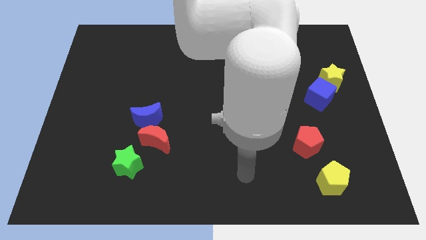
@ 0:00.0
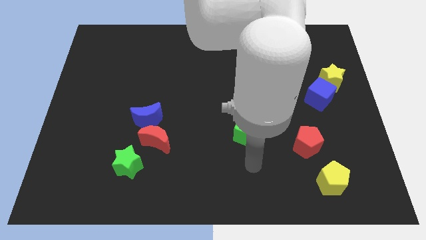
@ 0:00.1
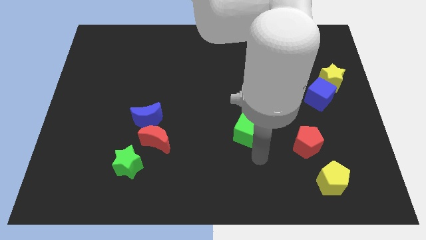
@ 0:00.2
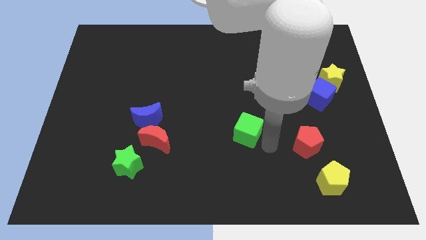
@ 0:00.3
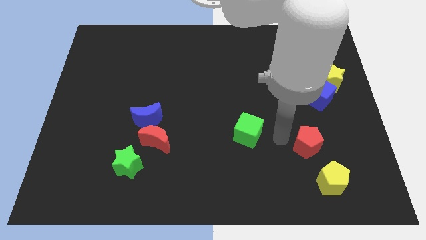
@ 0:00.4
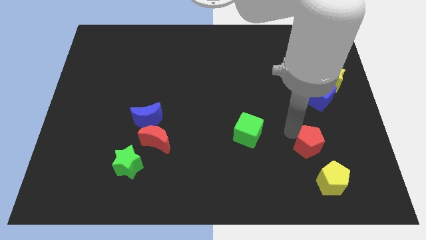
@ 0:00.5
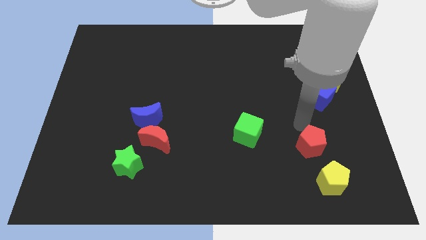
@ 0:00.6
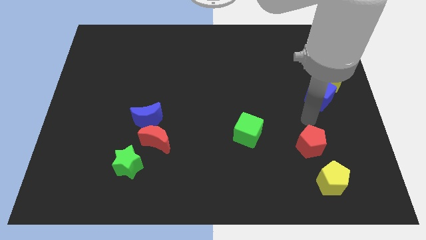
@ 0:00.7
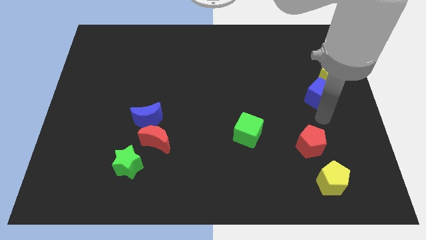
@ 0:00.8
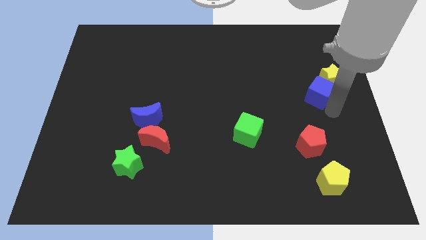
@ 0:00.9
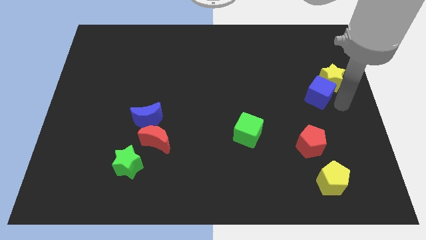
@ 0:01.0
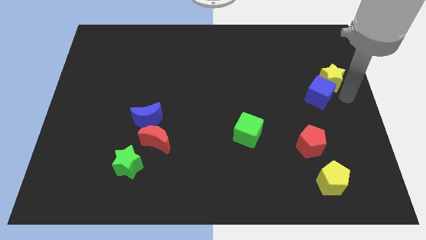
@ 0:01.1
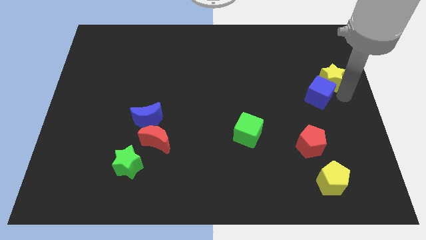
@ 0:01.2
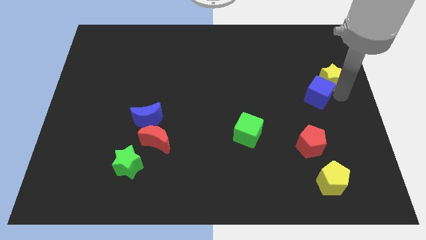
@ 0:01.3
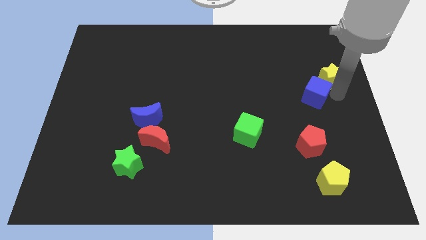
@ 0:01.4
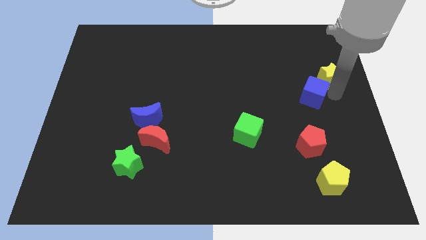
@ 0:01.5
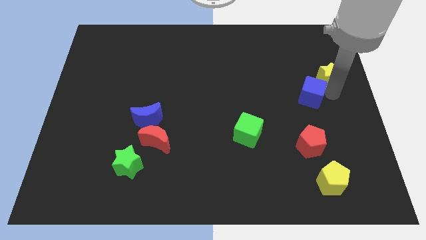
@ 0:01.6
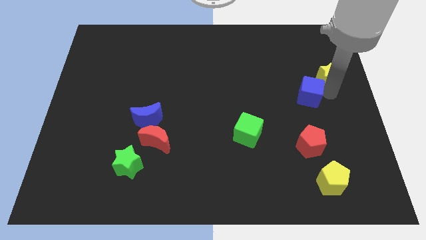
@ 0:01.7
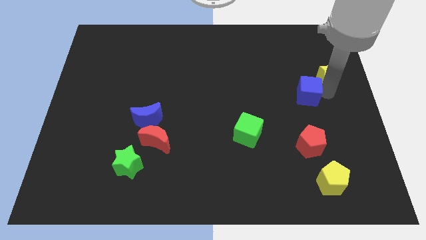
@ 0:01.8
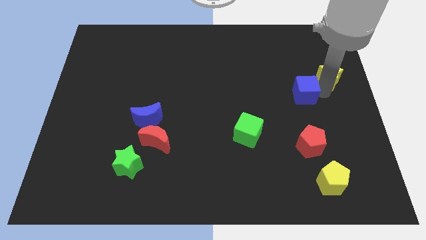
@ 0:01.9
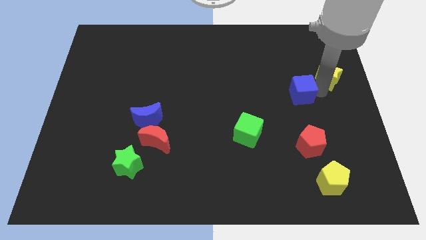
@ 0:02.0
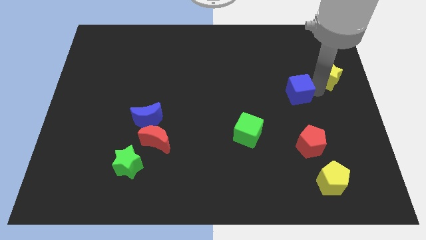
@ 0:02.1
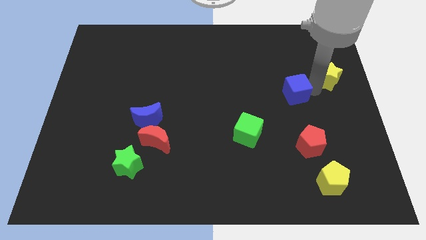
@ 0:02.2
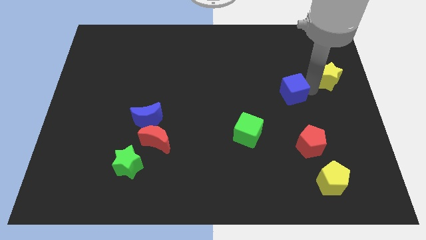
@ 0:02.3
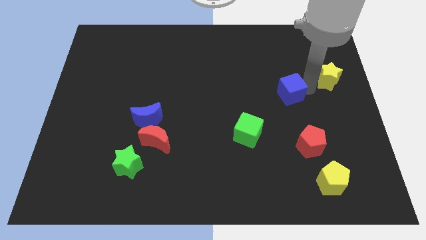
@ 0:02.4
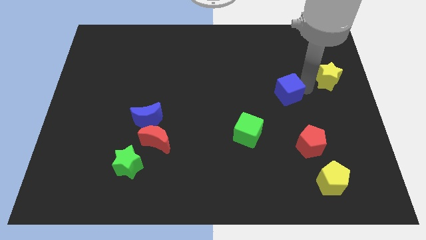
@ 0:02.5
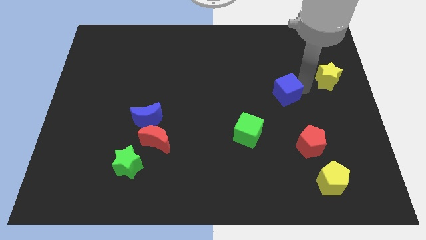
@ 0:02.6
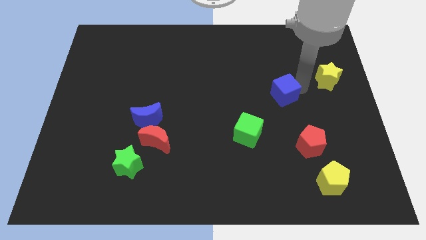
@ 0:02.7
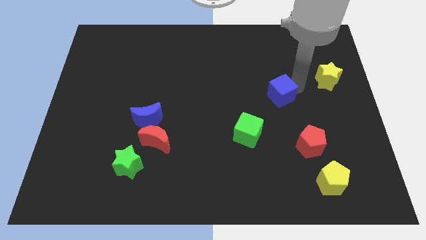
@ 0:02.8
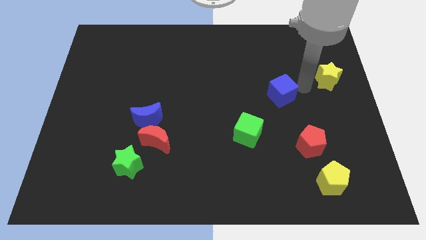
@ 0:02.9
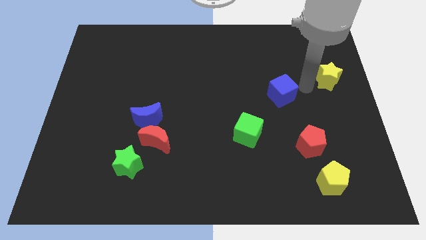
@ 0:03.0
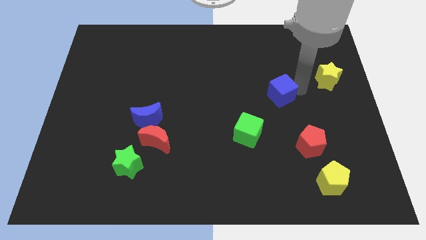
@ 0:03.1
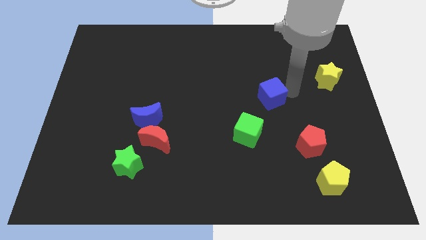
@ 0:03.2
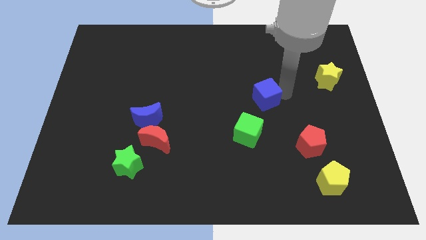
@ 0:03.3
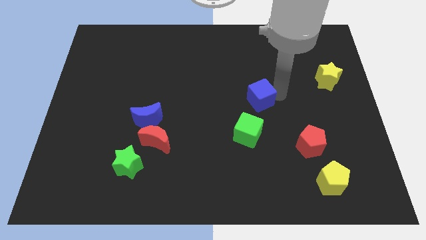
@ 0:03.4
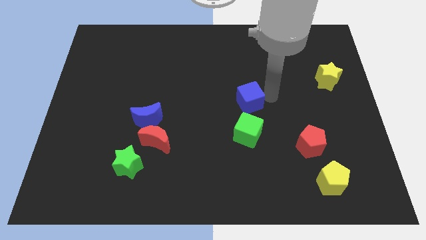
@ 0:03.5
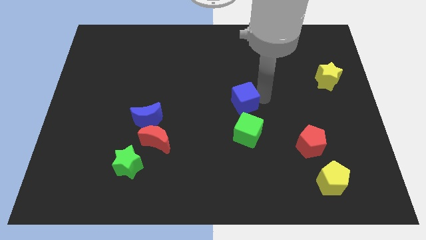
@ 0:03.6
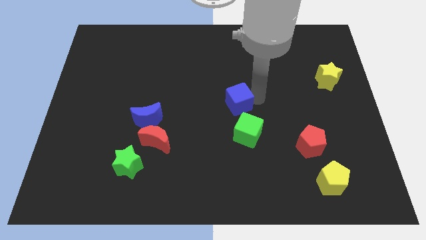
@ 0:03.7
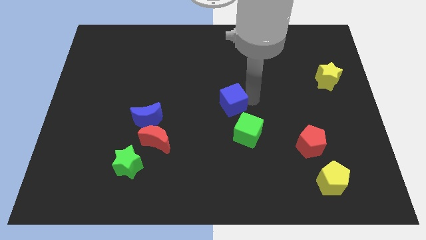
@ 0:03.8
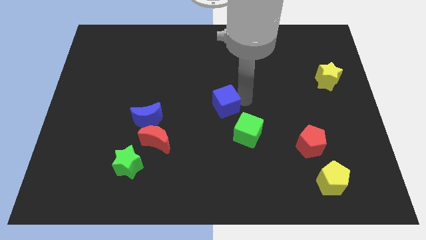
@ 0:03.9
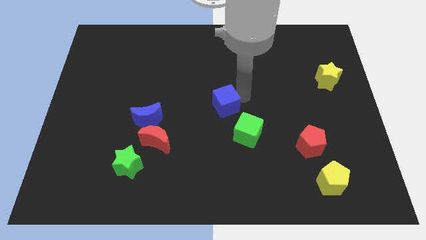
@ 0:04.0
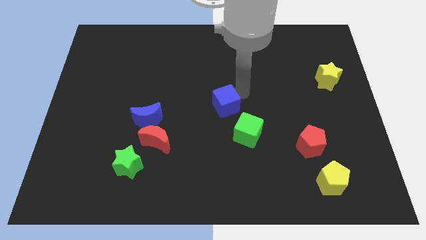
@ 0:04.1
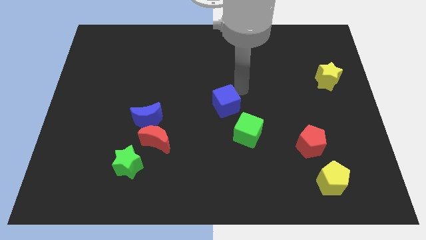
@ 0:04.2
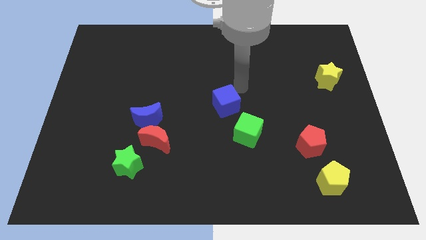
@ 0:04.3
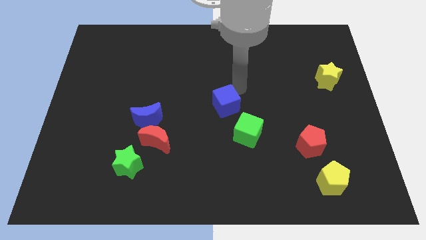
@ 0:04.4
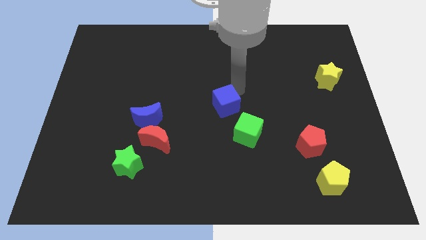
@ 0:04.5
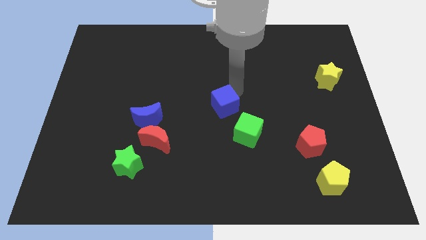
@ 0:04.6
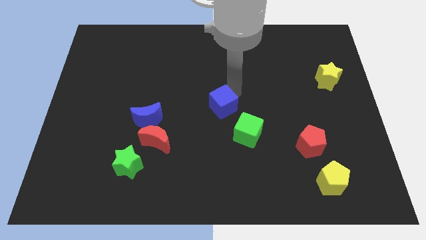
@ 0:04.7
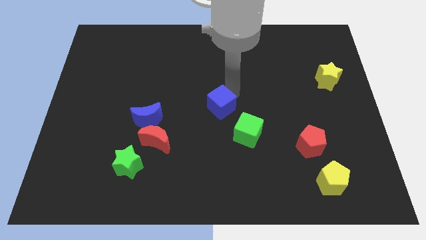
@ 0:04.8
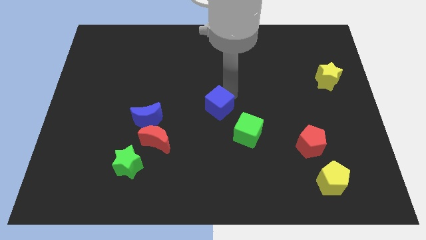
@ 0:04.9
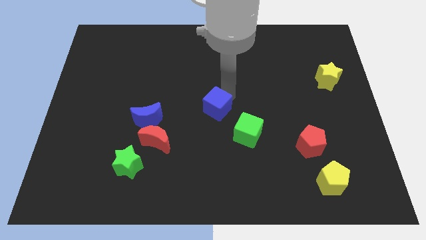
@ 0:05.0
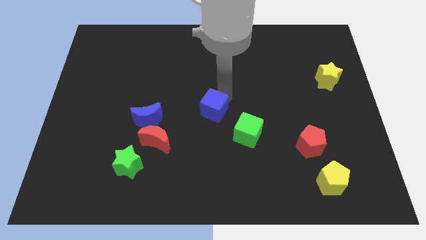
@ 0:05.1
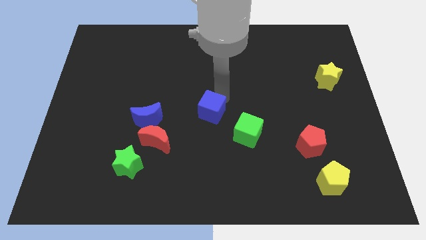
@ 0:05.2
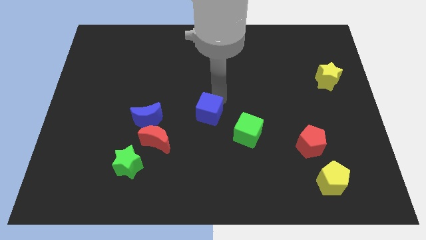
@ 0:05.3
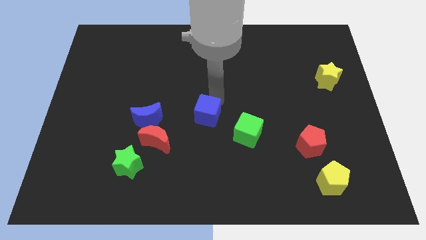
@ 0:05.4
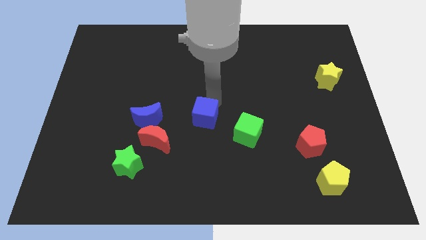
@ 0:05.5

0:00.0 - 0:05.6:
slide the blue cube to the left of the green cube

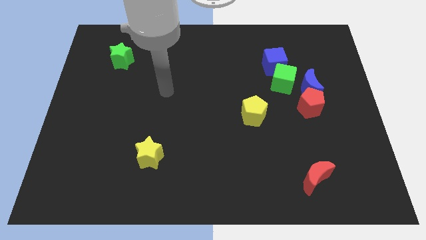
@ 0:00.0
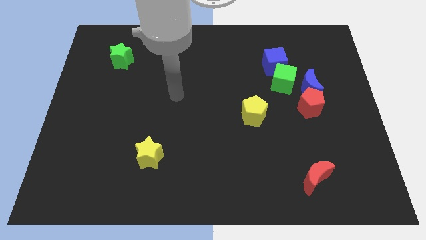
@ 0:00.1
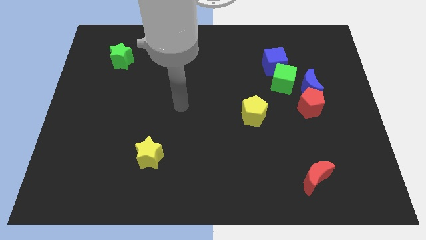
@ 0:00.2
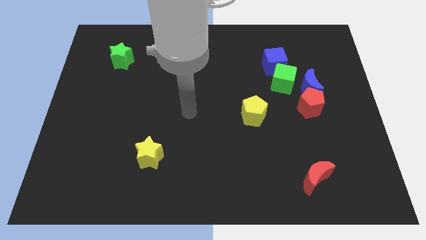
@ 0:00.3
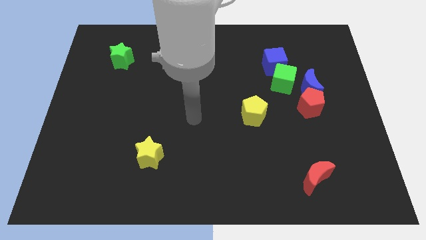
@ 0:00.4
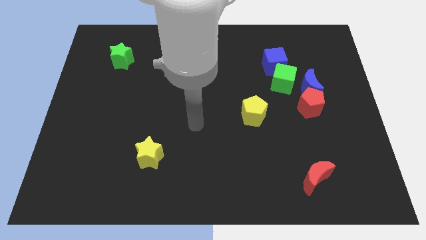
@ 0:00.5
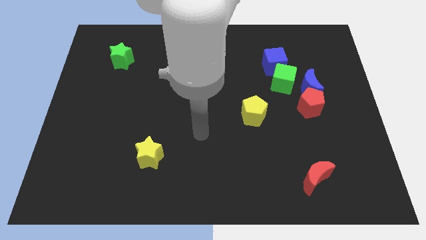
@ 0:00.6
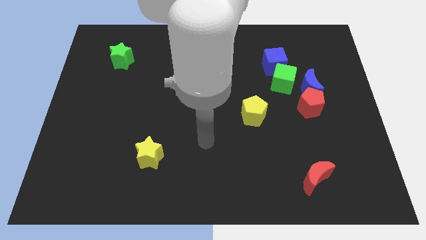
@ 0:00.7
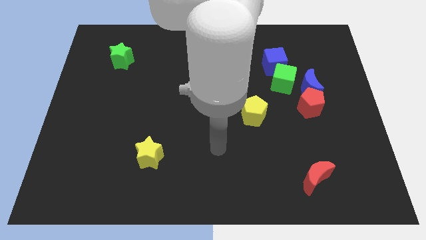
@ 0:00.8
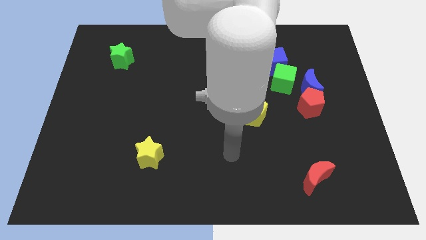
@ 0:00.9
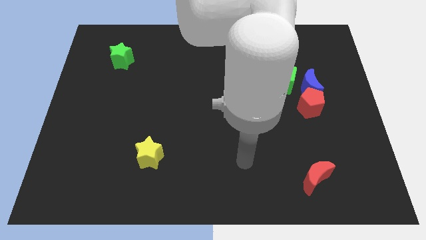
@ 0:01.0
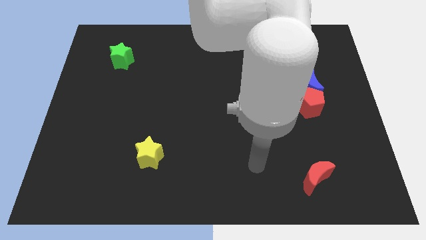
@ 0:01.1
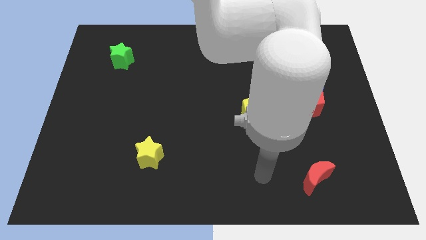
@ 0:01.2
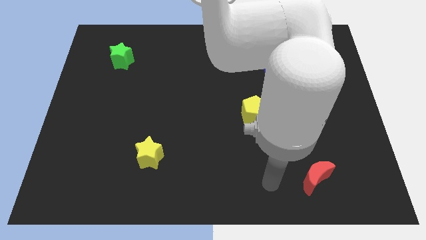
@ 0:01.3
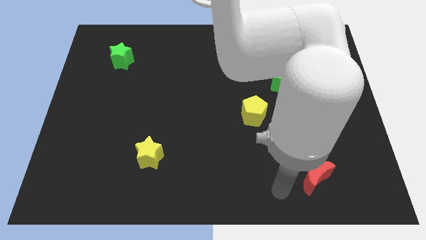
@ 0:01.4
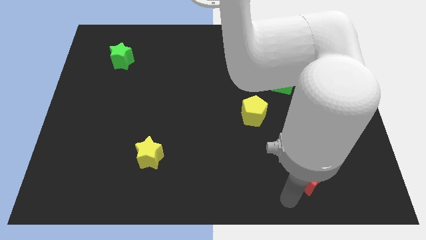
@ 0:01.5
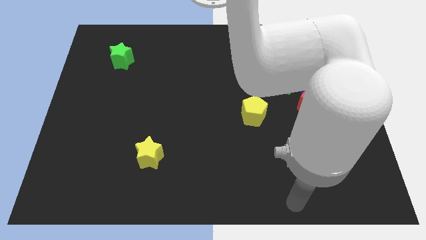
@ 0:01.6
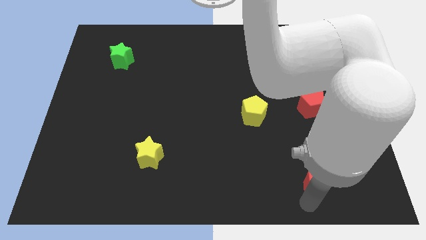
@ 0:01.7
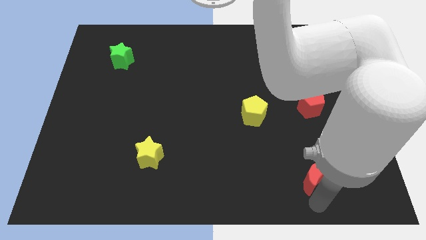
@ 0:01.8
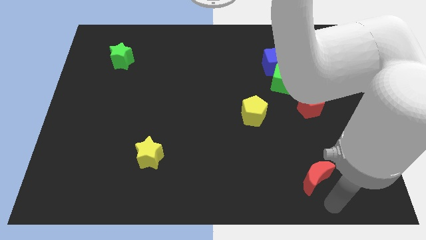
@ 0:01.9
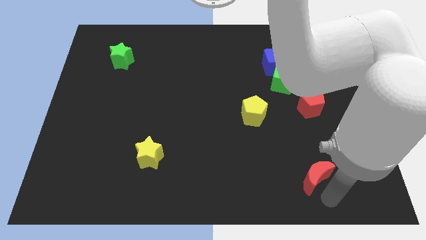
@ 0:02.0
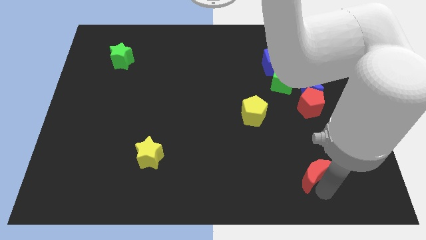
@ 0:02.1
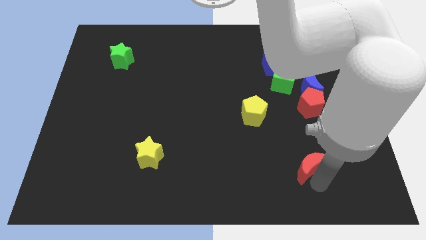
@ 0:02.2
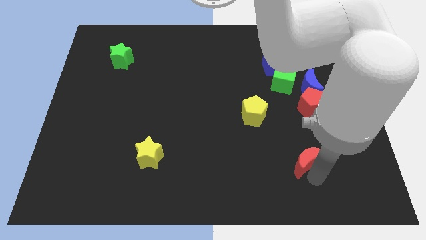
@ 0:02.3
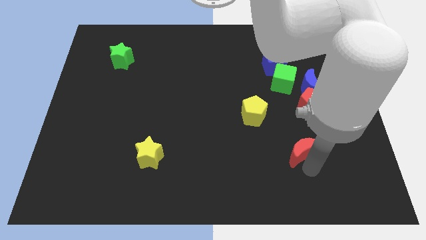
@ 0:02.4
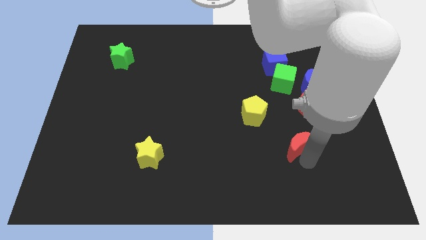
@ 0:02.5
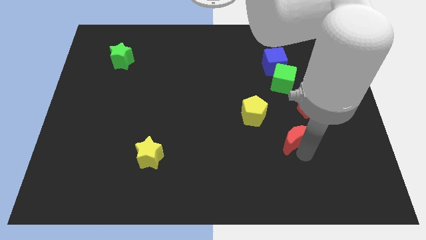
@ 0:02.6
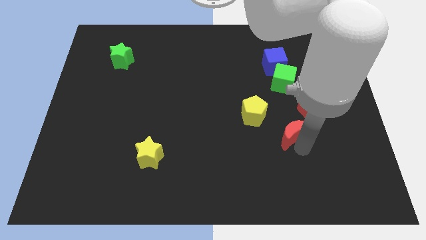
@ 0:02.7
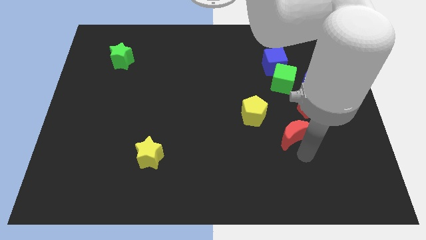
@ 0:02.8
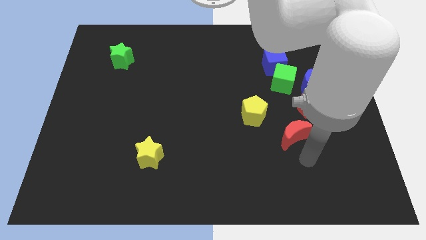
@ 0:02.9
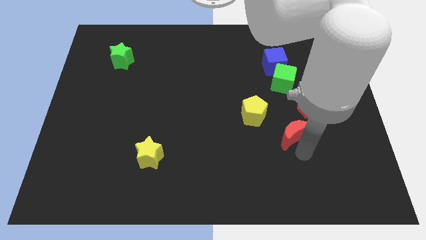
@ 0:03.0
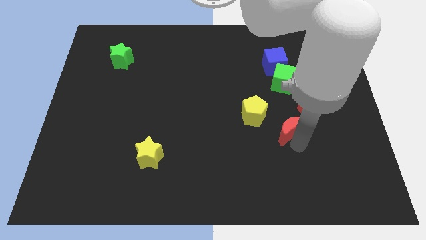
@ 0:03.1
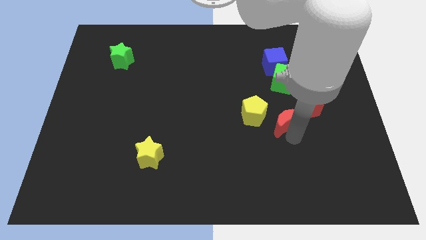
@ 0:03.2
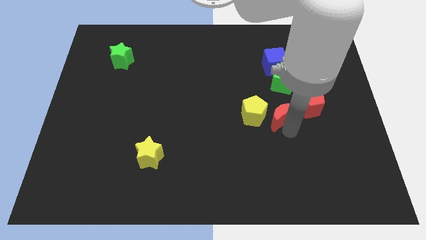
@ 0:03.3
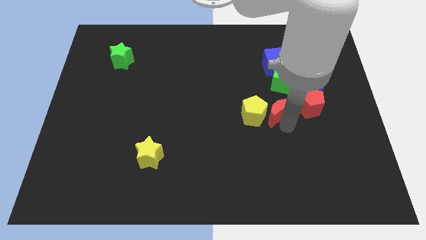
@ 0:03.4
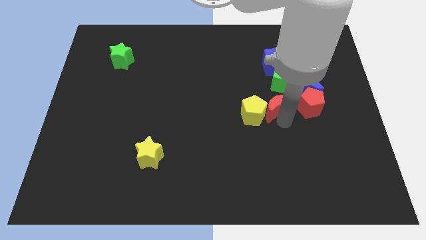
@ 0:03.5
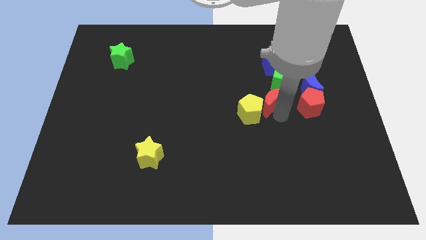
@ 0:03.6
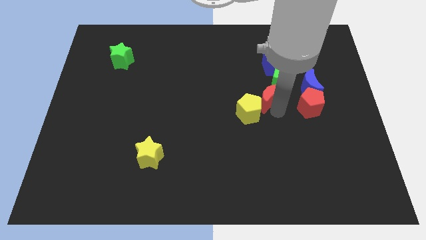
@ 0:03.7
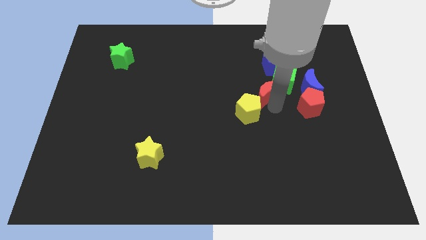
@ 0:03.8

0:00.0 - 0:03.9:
move the red moon just left of the green cube
